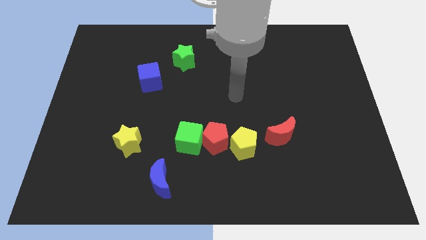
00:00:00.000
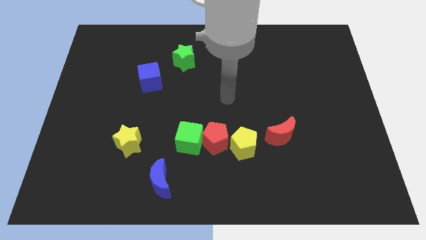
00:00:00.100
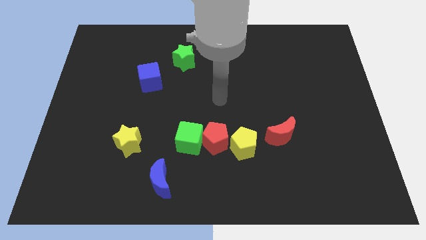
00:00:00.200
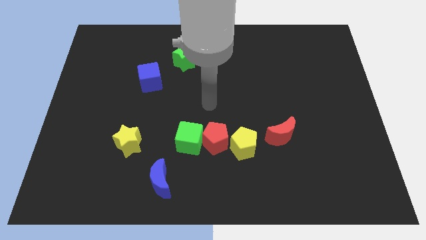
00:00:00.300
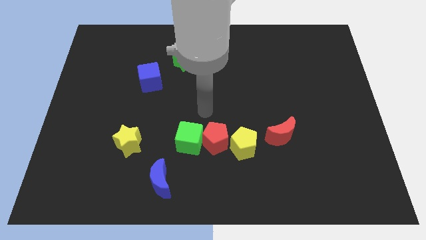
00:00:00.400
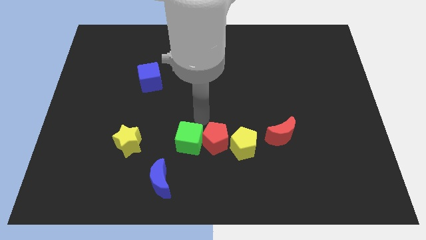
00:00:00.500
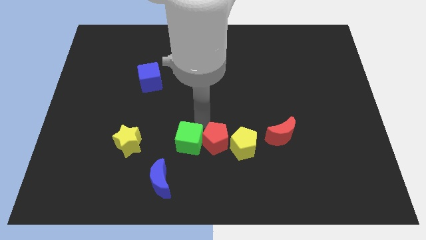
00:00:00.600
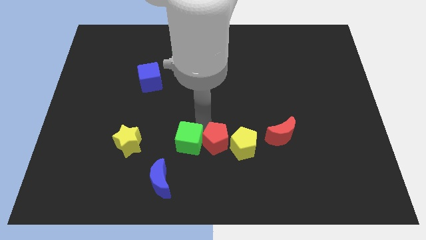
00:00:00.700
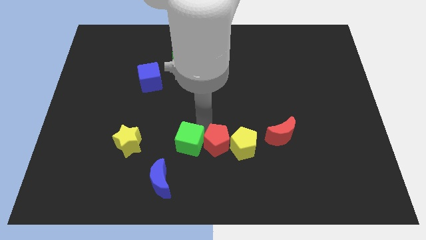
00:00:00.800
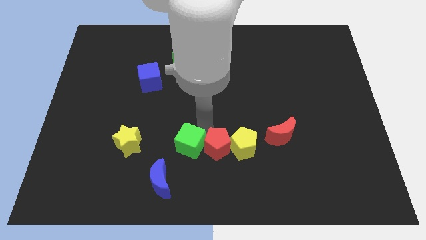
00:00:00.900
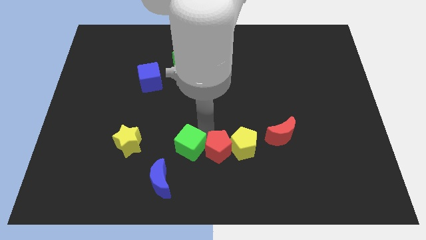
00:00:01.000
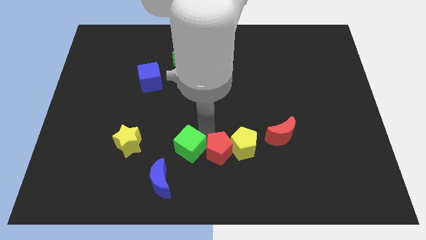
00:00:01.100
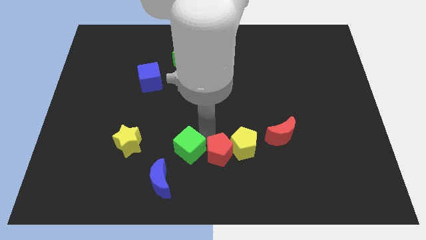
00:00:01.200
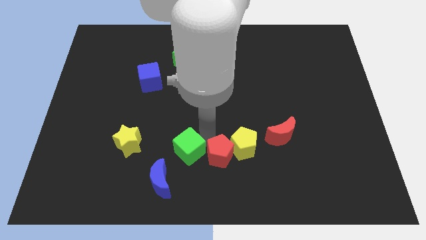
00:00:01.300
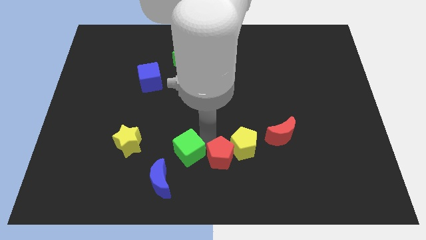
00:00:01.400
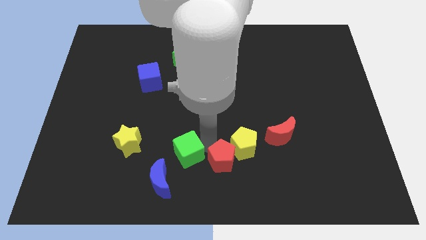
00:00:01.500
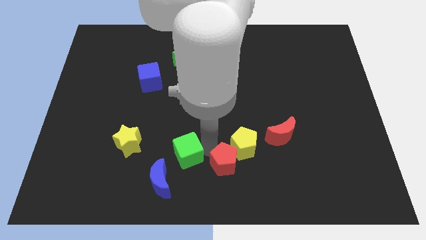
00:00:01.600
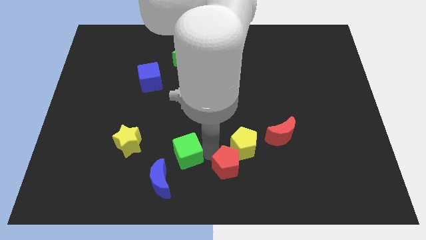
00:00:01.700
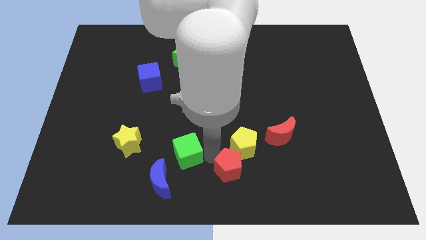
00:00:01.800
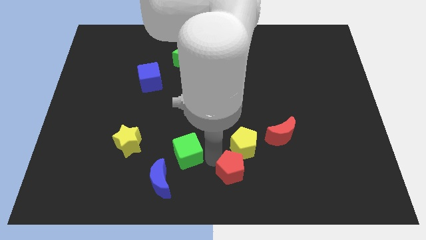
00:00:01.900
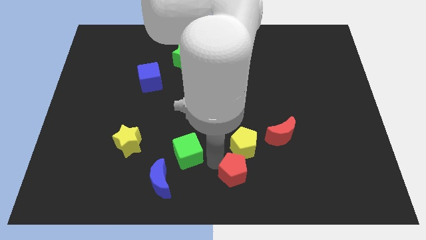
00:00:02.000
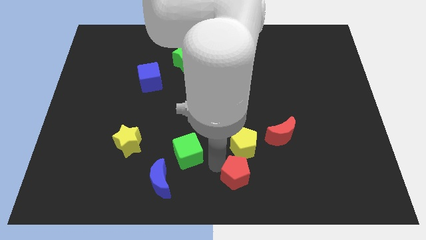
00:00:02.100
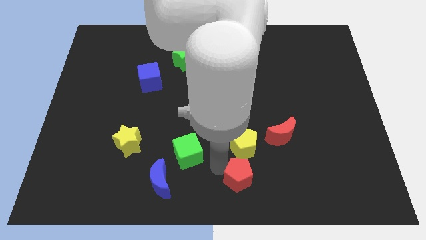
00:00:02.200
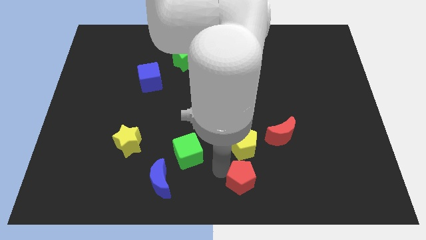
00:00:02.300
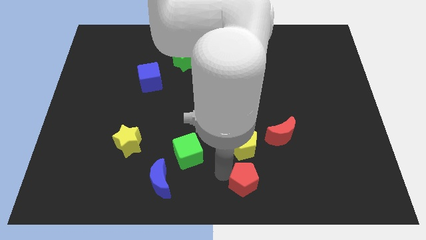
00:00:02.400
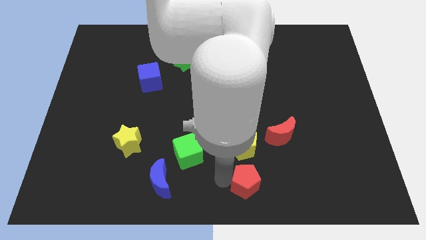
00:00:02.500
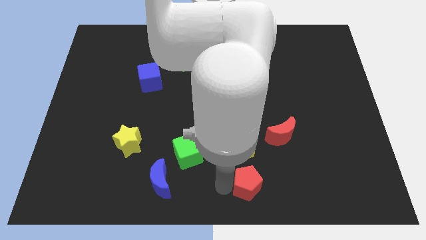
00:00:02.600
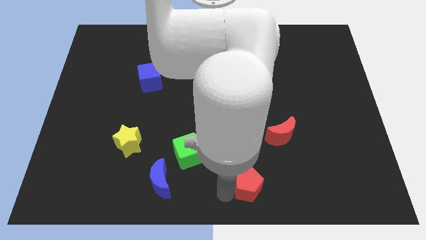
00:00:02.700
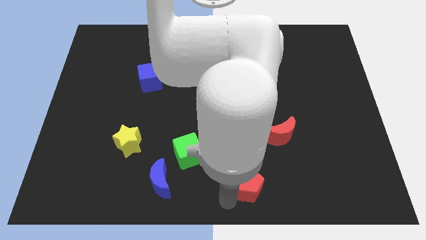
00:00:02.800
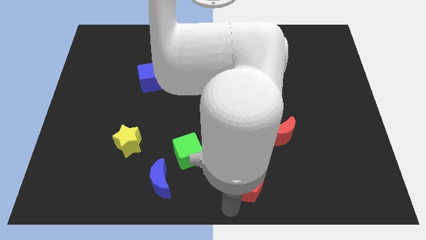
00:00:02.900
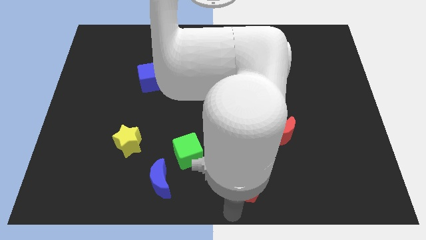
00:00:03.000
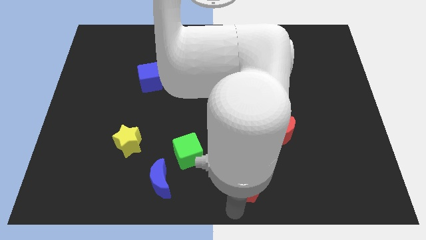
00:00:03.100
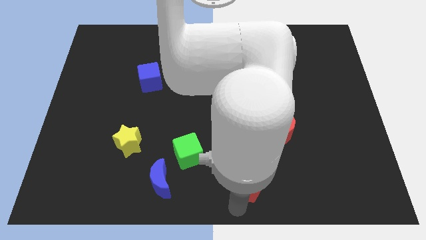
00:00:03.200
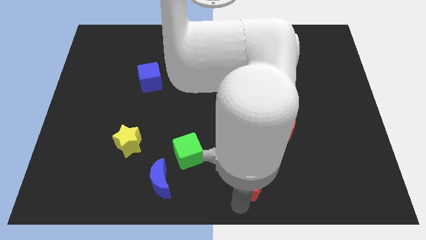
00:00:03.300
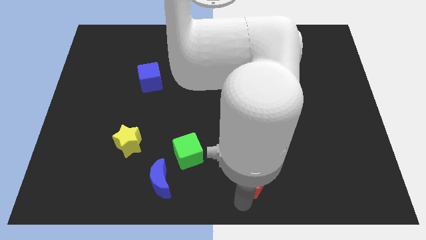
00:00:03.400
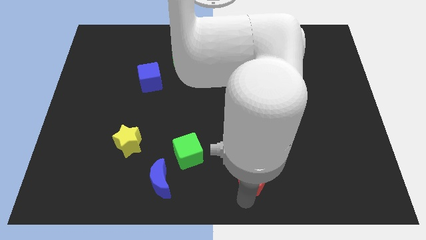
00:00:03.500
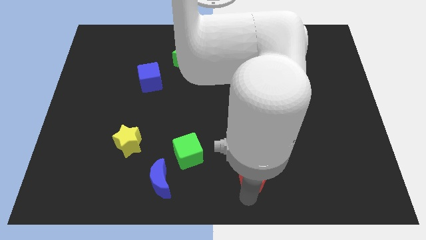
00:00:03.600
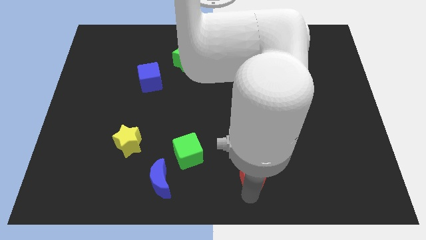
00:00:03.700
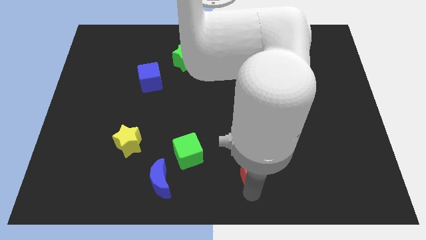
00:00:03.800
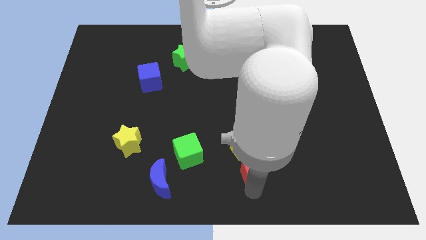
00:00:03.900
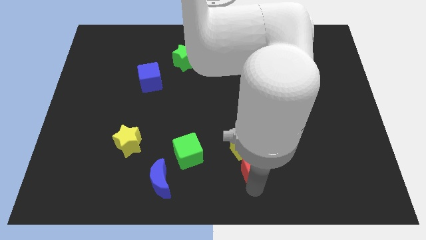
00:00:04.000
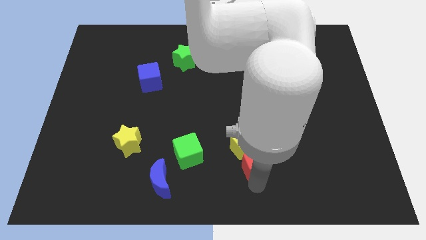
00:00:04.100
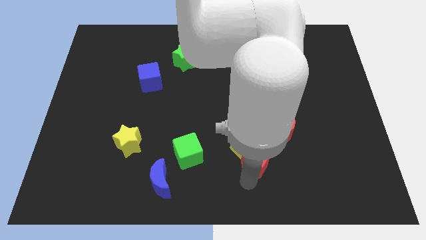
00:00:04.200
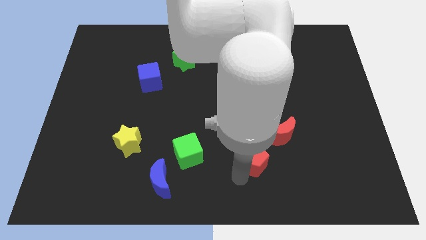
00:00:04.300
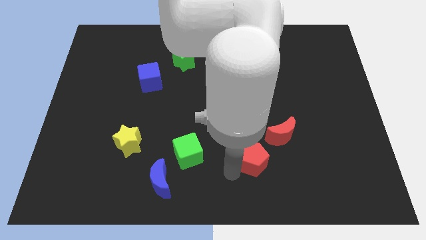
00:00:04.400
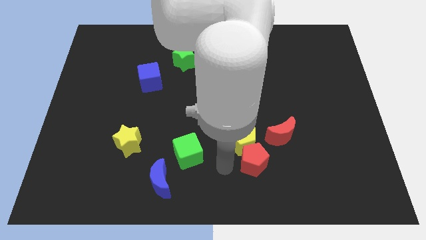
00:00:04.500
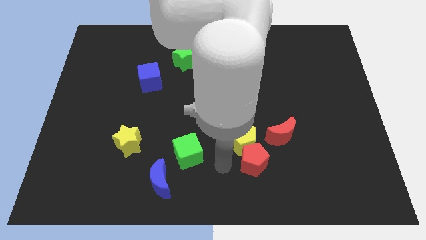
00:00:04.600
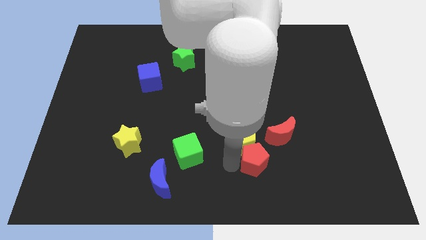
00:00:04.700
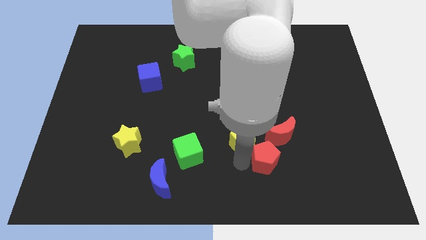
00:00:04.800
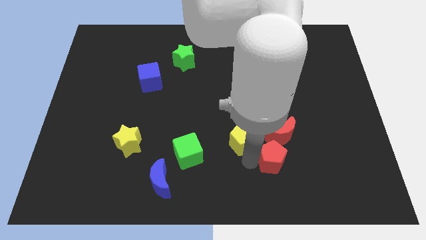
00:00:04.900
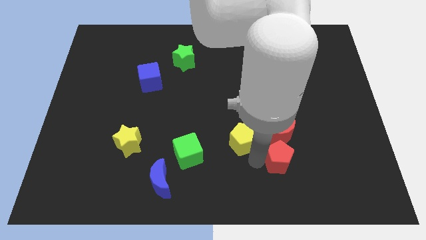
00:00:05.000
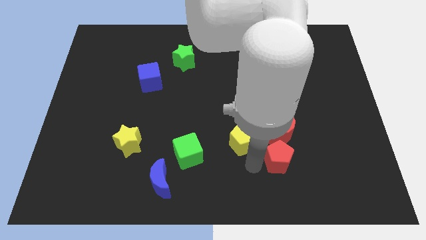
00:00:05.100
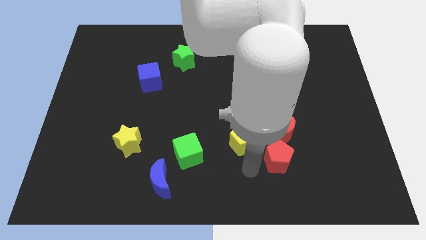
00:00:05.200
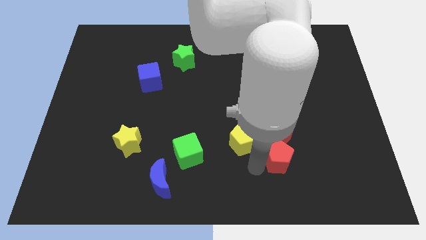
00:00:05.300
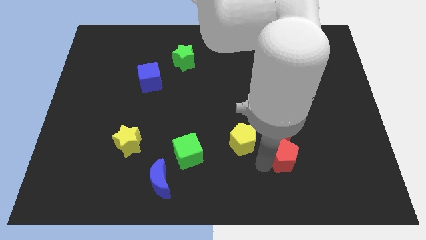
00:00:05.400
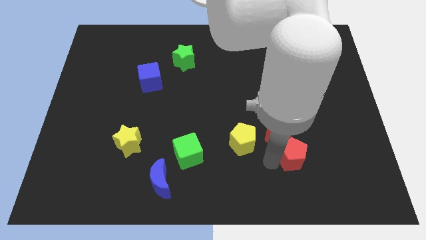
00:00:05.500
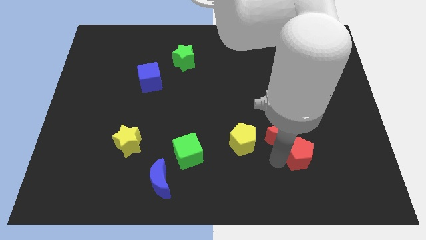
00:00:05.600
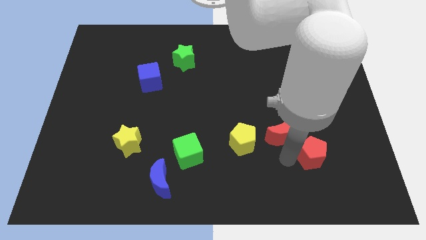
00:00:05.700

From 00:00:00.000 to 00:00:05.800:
put the red pentagon to the right side of the red moon

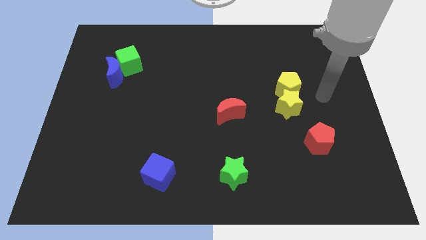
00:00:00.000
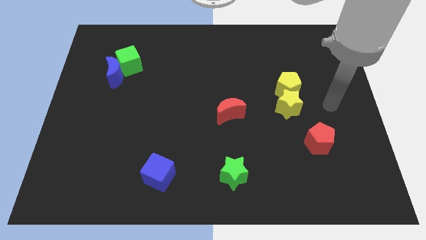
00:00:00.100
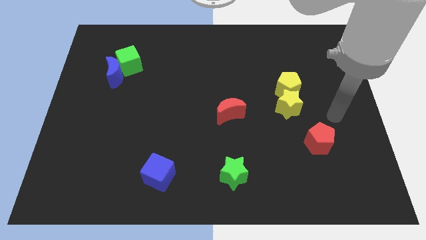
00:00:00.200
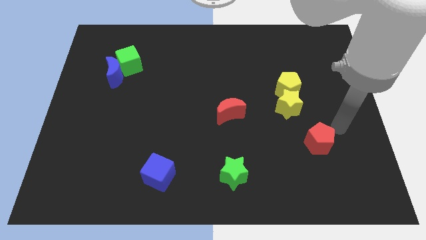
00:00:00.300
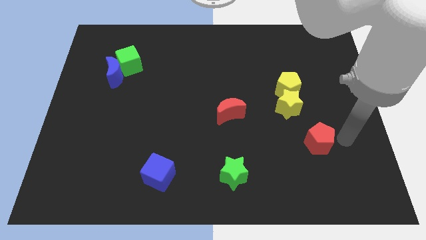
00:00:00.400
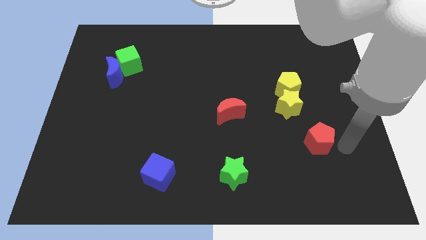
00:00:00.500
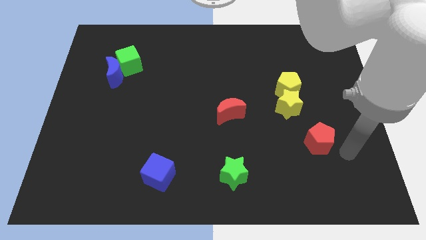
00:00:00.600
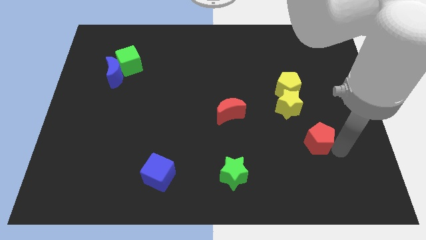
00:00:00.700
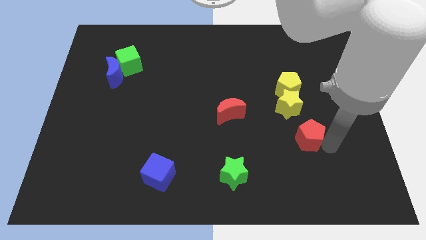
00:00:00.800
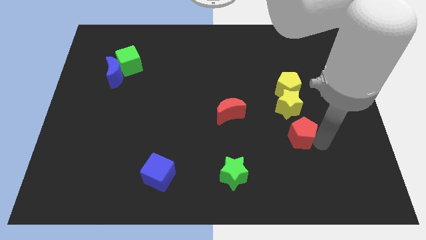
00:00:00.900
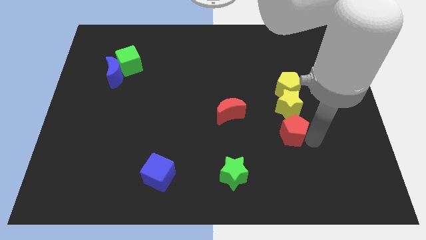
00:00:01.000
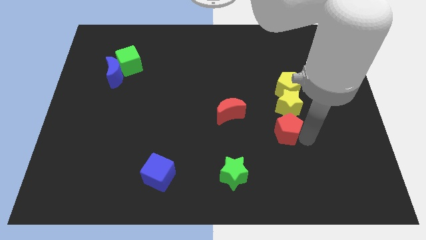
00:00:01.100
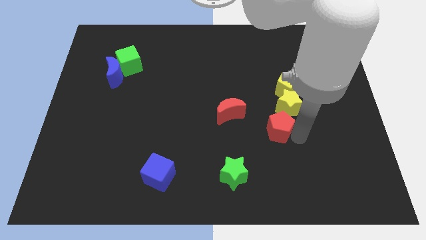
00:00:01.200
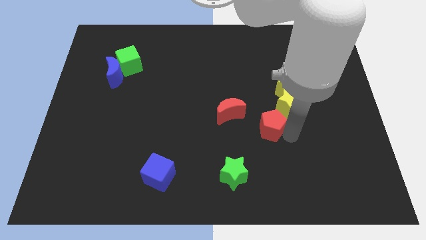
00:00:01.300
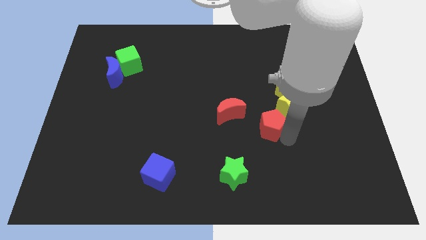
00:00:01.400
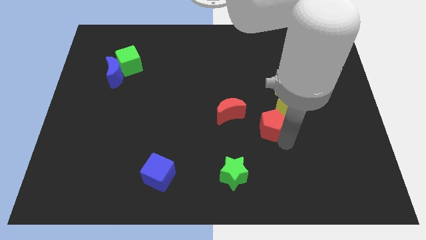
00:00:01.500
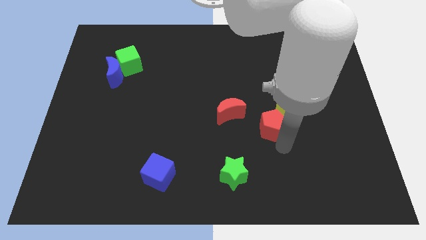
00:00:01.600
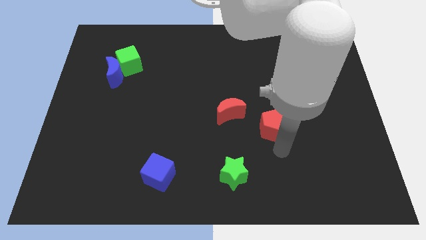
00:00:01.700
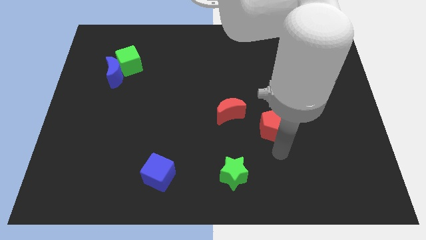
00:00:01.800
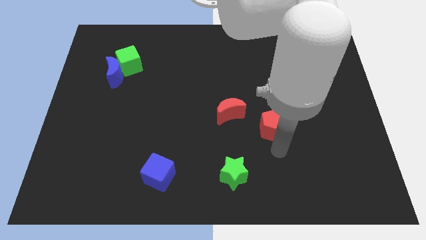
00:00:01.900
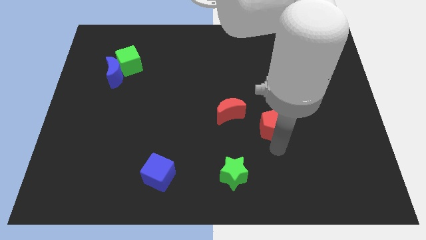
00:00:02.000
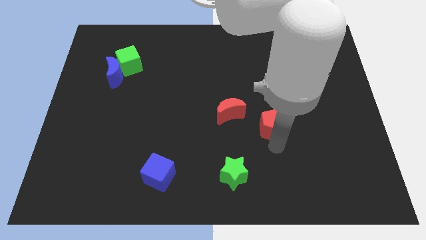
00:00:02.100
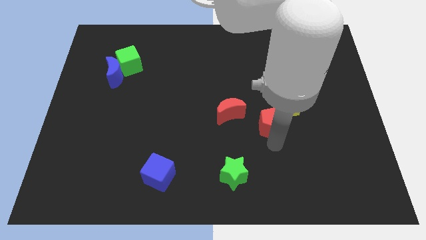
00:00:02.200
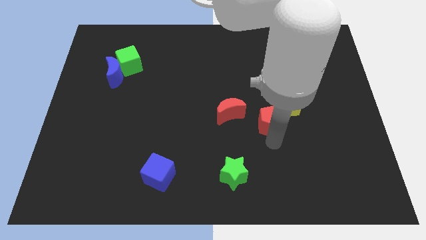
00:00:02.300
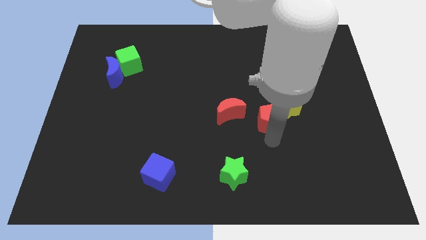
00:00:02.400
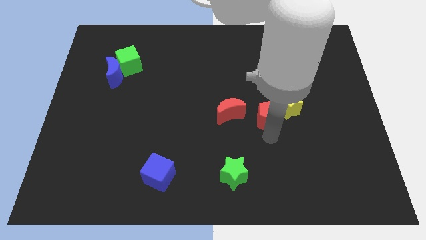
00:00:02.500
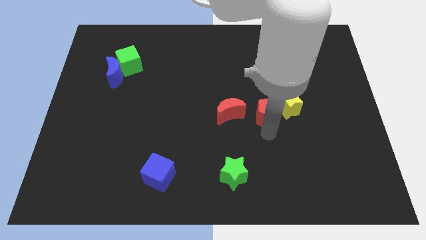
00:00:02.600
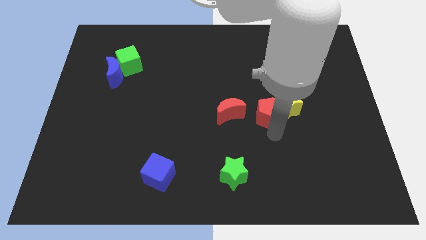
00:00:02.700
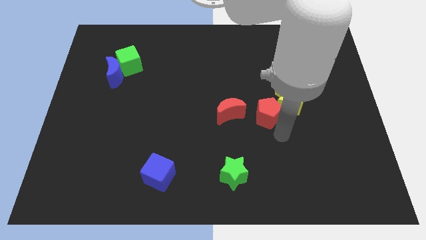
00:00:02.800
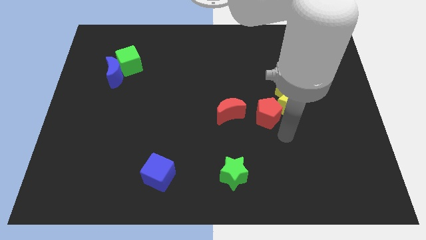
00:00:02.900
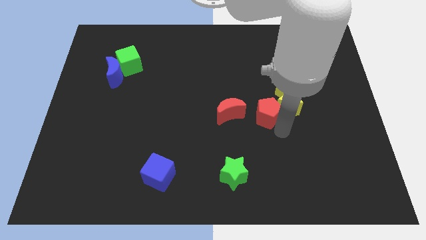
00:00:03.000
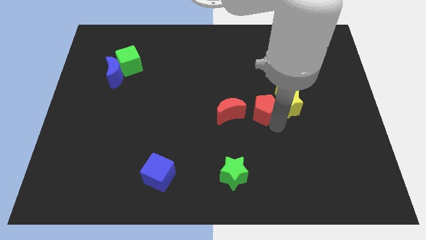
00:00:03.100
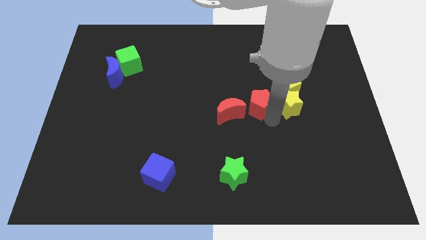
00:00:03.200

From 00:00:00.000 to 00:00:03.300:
slide the red pentagon to the top right side of the red moon
